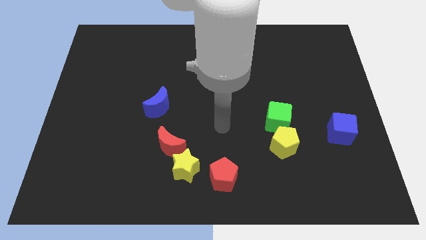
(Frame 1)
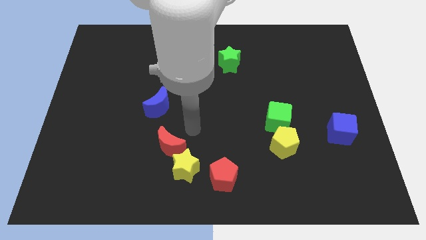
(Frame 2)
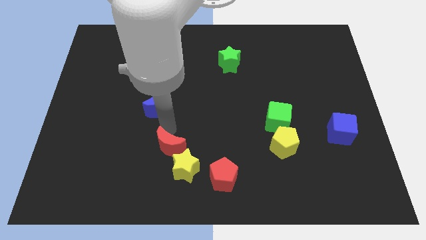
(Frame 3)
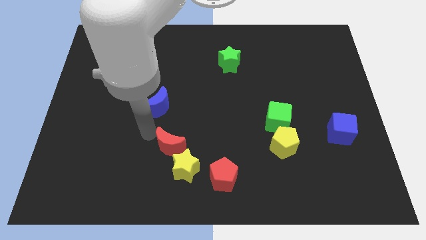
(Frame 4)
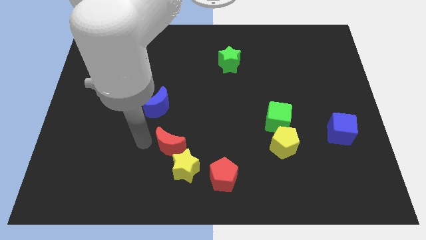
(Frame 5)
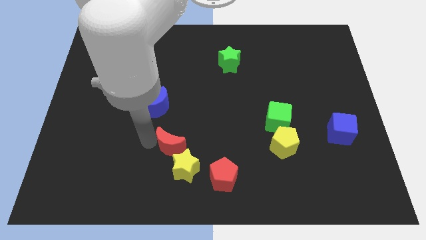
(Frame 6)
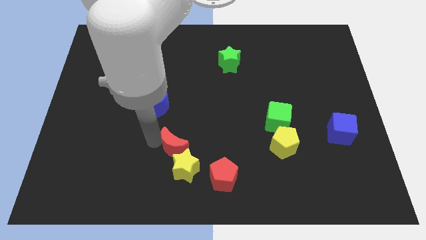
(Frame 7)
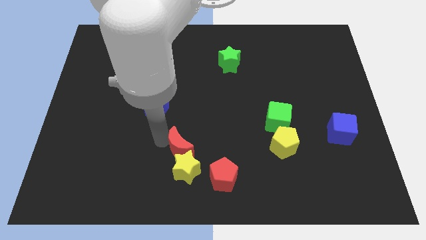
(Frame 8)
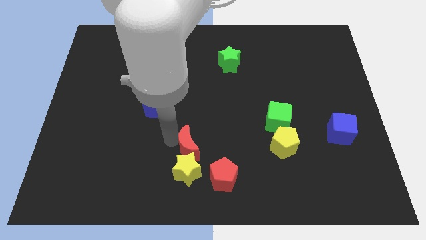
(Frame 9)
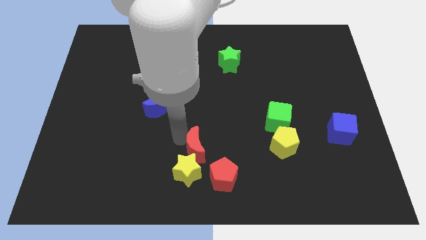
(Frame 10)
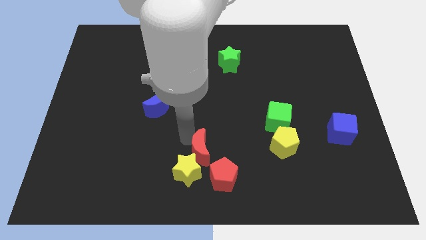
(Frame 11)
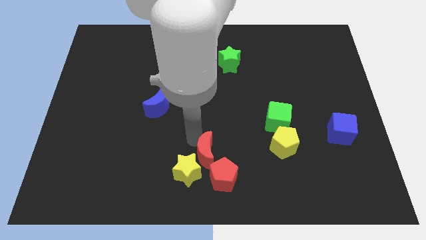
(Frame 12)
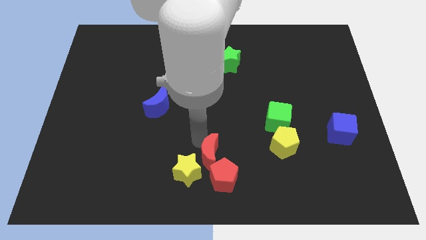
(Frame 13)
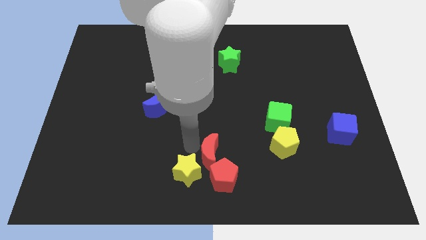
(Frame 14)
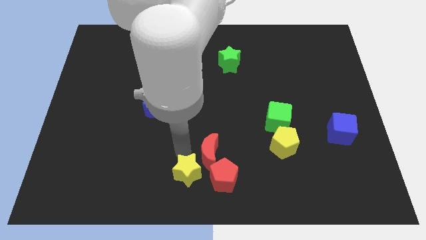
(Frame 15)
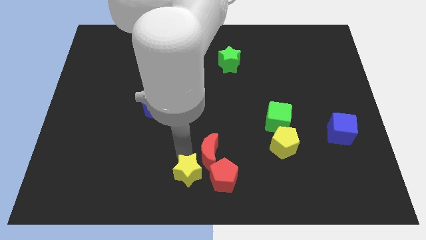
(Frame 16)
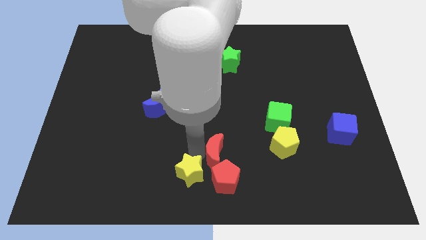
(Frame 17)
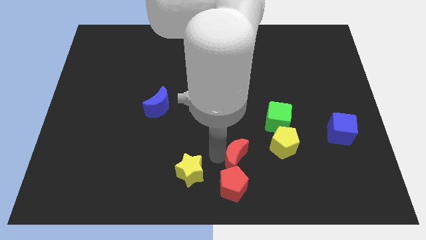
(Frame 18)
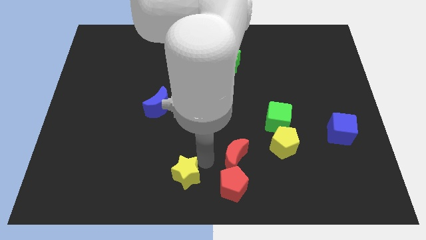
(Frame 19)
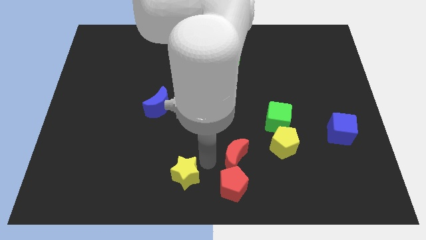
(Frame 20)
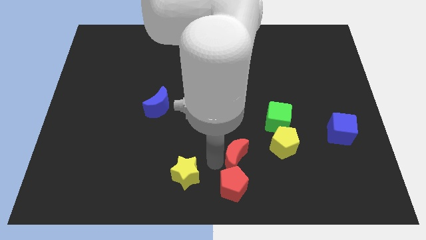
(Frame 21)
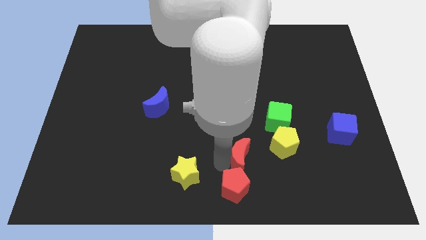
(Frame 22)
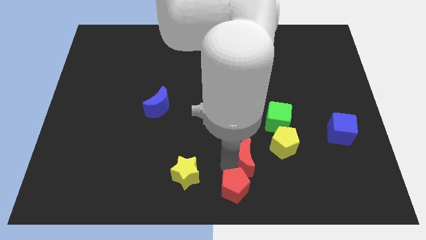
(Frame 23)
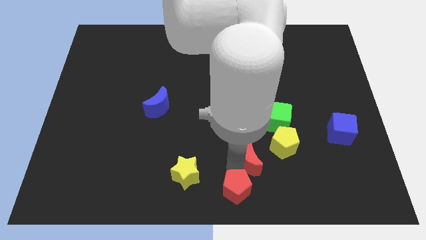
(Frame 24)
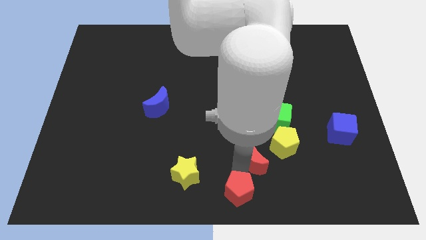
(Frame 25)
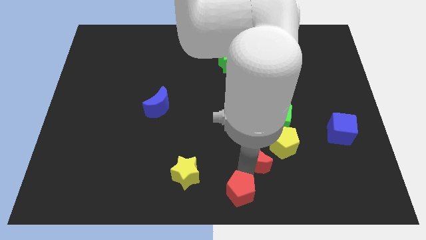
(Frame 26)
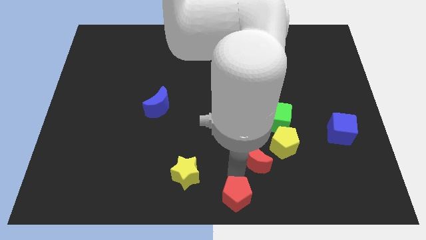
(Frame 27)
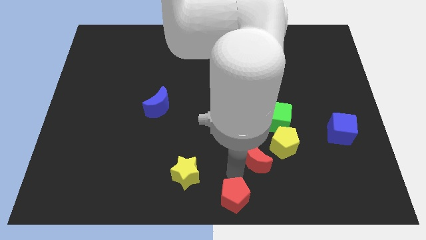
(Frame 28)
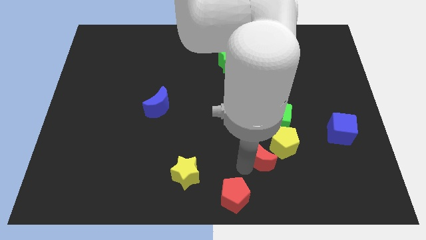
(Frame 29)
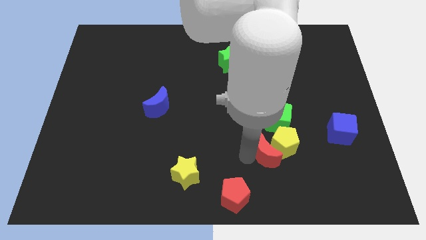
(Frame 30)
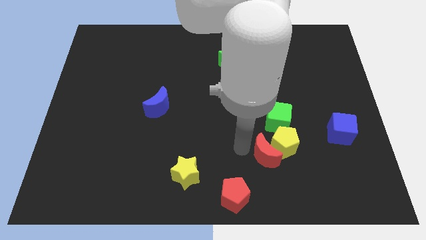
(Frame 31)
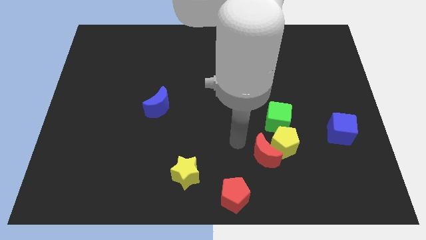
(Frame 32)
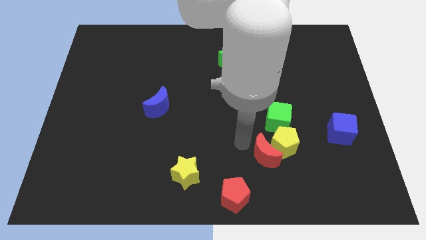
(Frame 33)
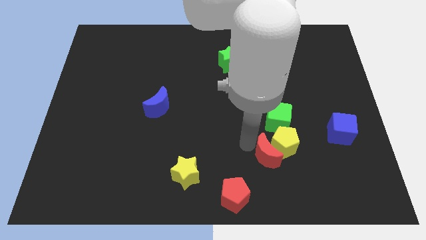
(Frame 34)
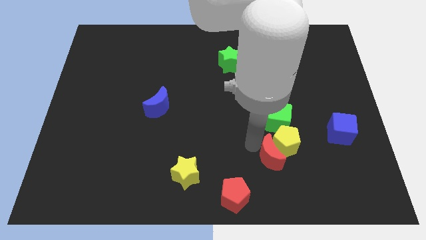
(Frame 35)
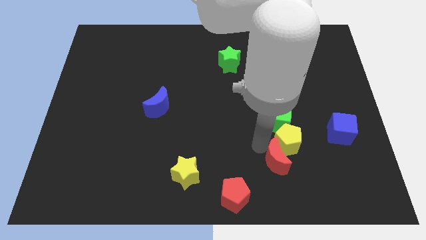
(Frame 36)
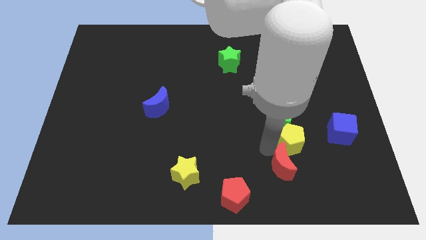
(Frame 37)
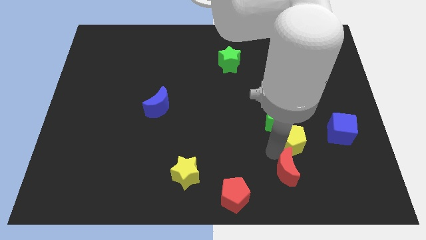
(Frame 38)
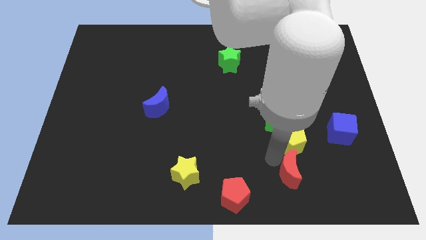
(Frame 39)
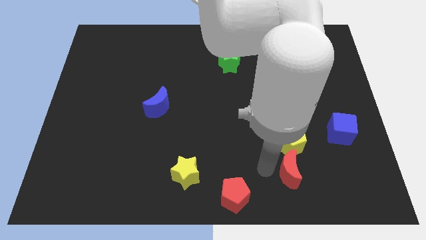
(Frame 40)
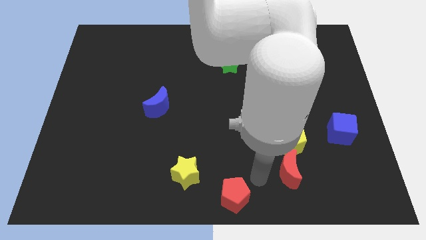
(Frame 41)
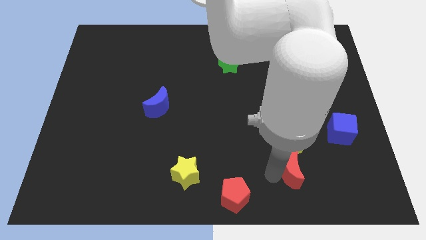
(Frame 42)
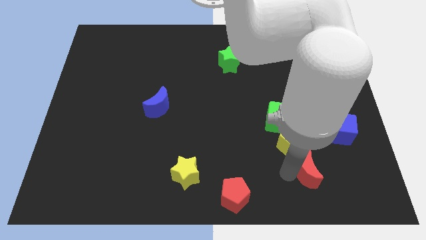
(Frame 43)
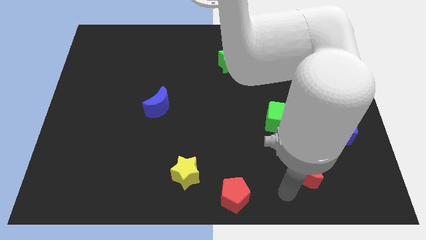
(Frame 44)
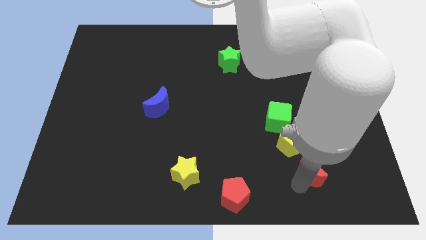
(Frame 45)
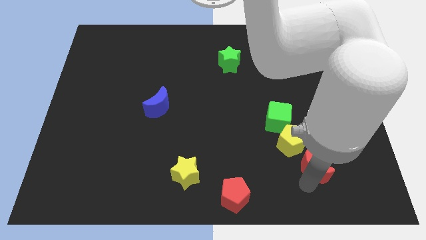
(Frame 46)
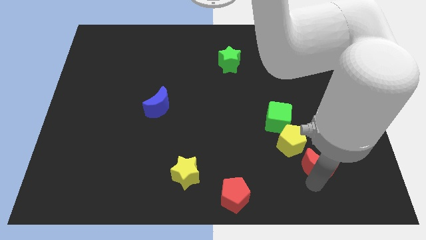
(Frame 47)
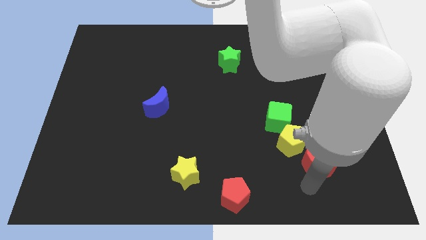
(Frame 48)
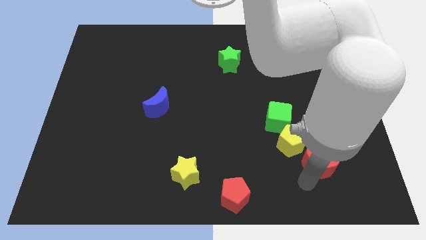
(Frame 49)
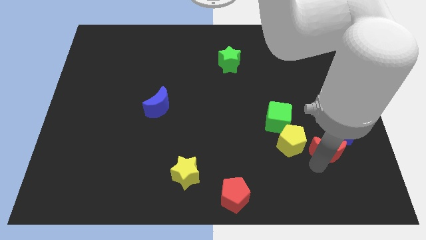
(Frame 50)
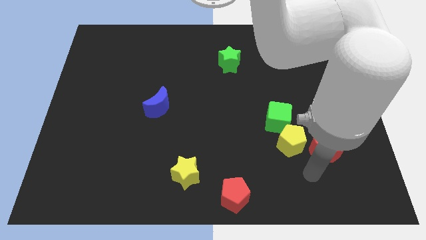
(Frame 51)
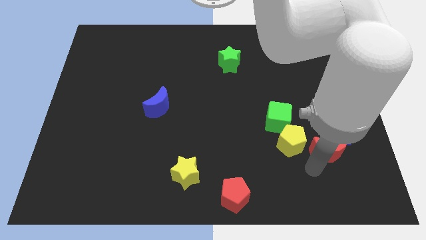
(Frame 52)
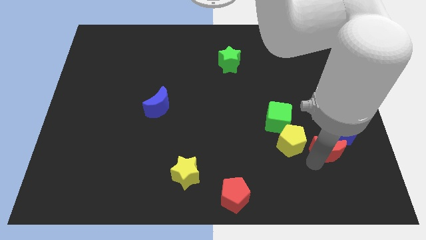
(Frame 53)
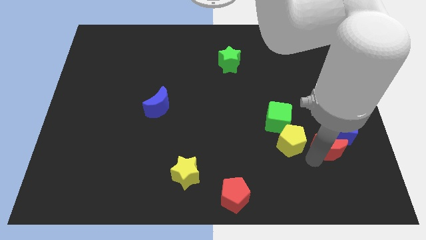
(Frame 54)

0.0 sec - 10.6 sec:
put the red moon next to the blue cube

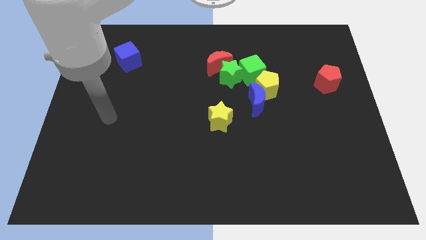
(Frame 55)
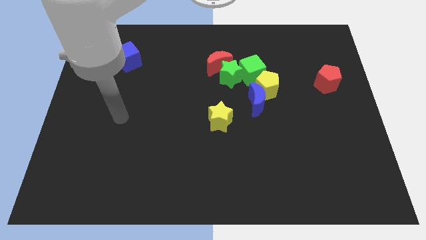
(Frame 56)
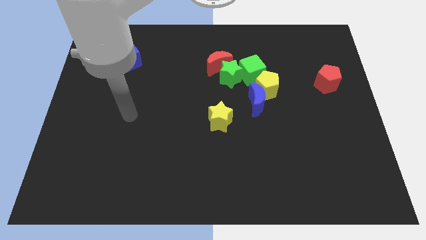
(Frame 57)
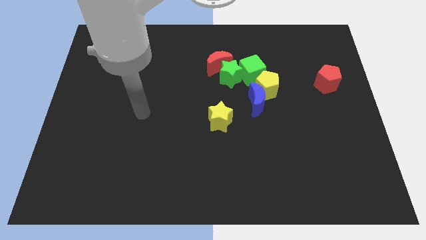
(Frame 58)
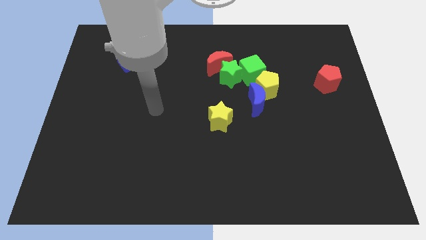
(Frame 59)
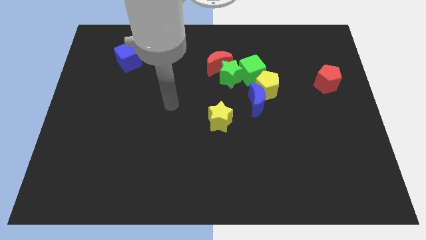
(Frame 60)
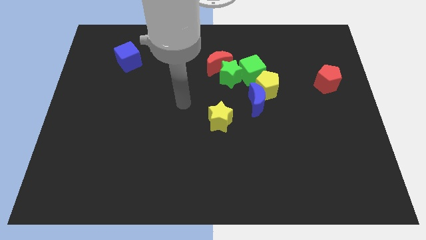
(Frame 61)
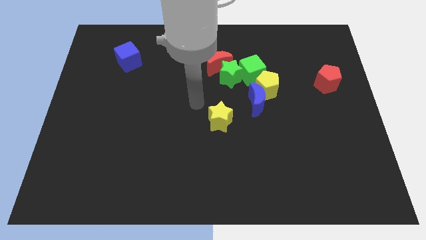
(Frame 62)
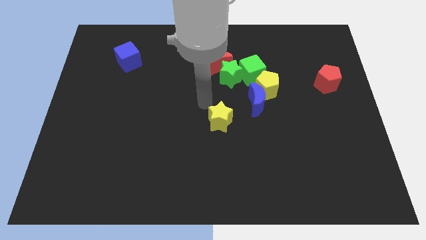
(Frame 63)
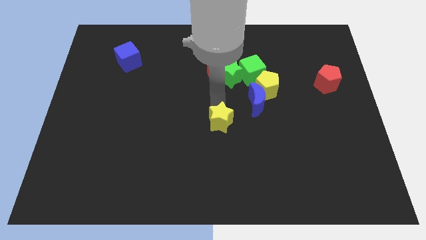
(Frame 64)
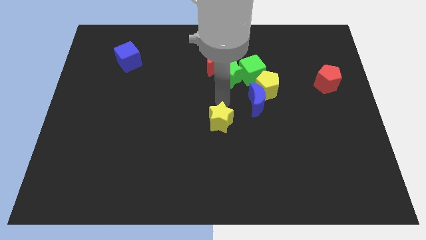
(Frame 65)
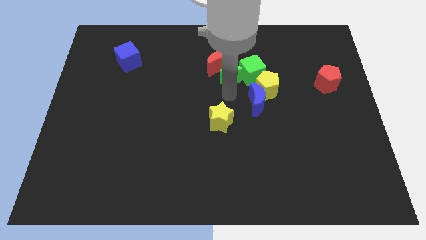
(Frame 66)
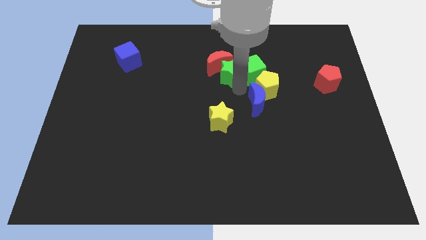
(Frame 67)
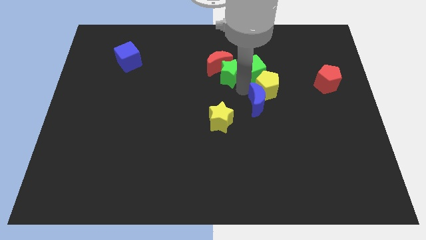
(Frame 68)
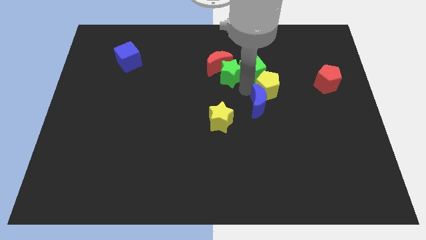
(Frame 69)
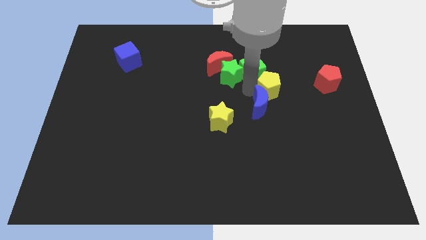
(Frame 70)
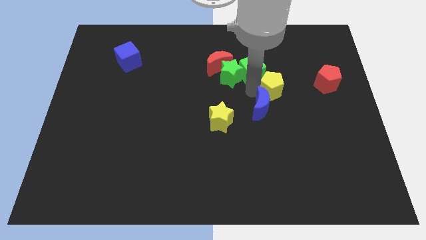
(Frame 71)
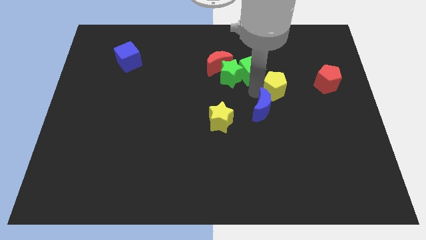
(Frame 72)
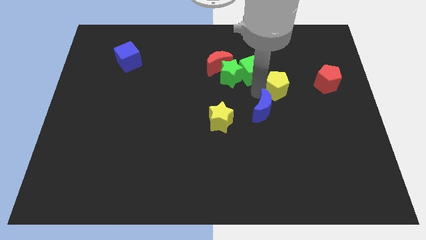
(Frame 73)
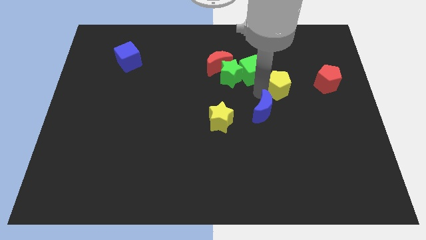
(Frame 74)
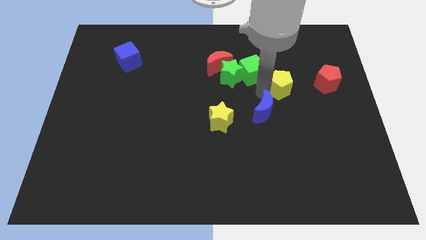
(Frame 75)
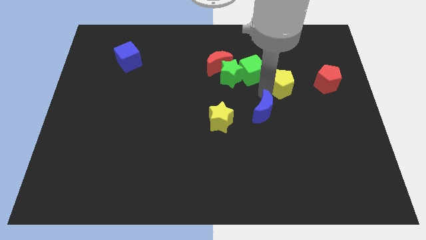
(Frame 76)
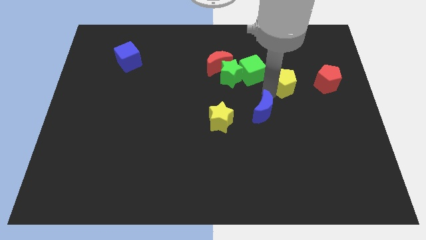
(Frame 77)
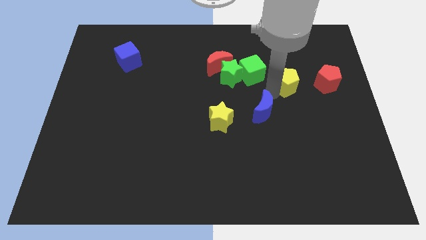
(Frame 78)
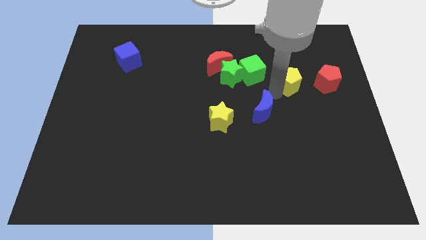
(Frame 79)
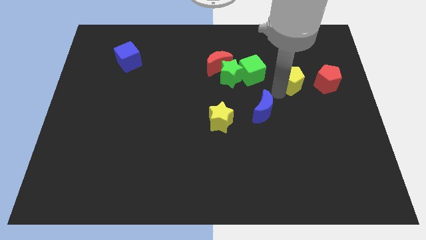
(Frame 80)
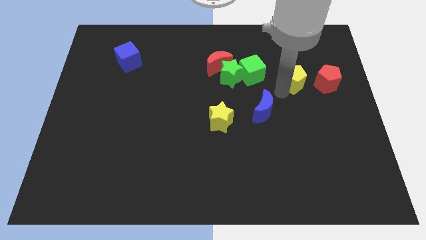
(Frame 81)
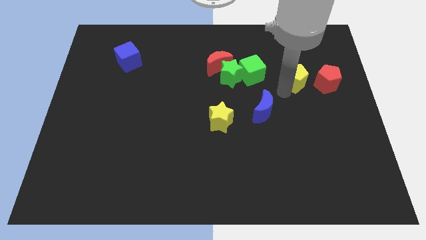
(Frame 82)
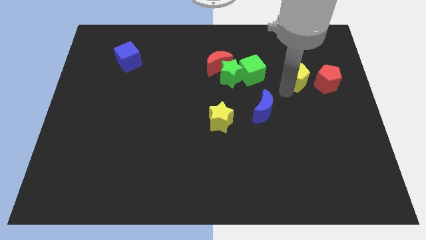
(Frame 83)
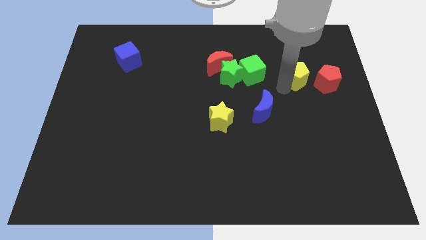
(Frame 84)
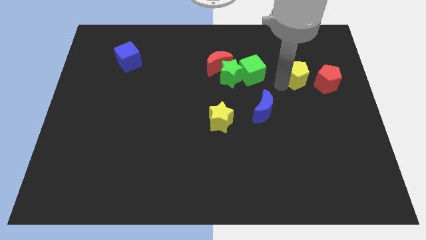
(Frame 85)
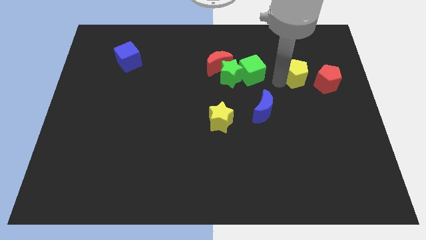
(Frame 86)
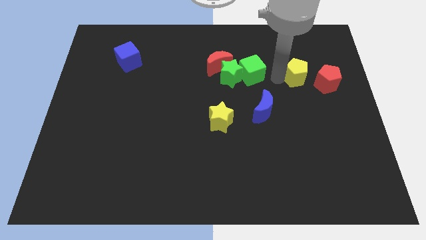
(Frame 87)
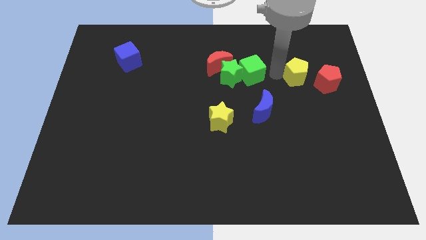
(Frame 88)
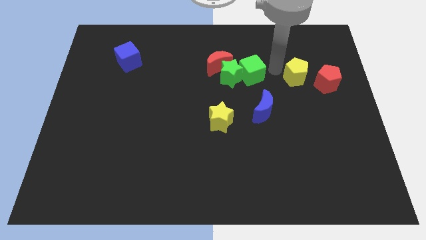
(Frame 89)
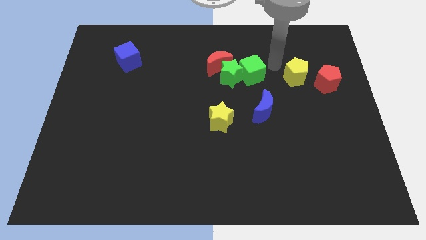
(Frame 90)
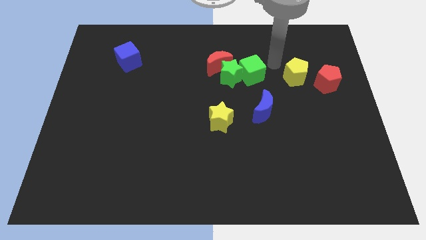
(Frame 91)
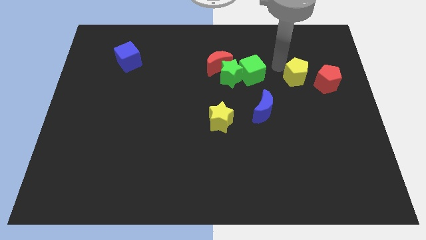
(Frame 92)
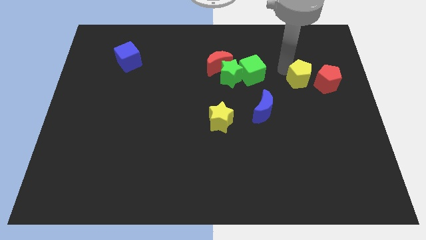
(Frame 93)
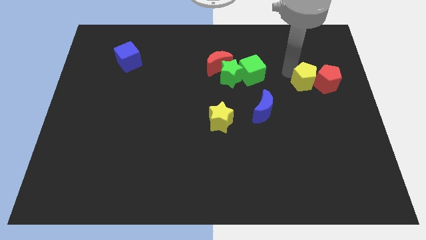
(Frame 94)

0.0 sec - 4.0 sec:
push the yellow pentagon next to the red pentagon
